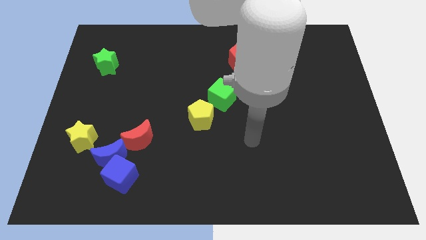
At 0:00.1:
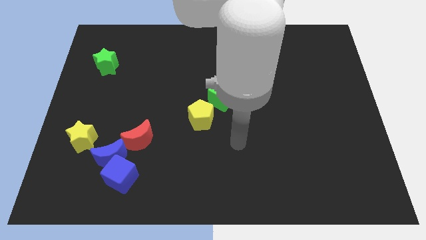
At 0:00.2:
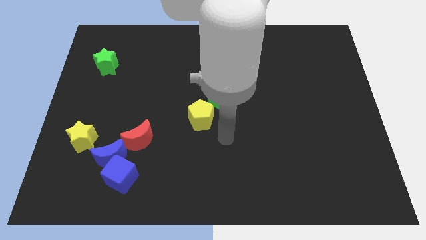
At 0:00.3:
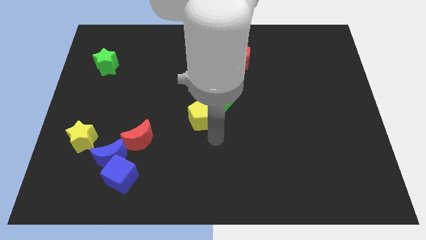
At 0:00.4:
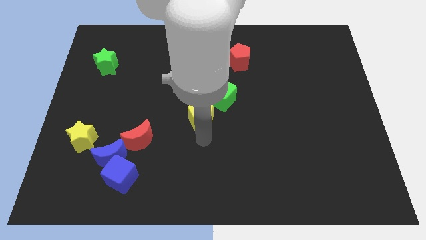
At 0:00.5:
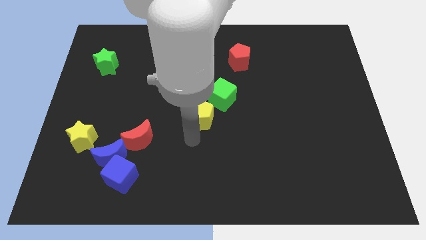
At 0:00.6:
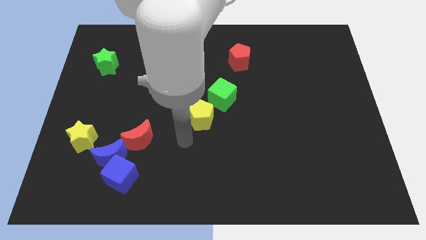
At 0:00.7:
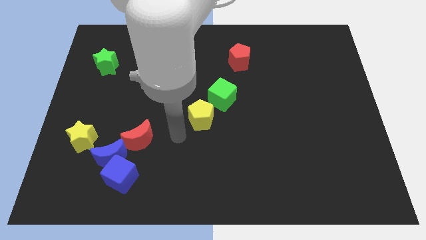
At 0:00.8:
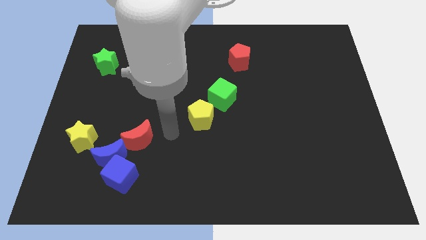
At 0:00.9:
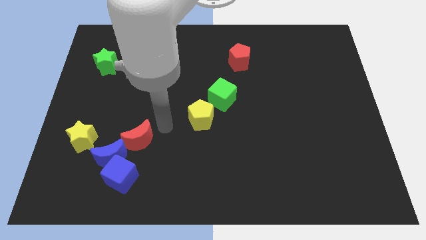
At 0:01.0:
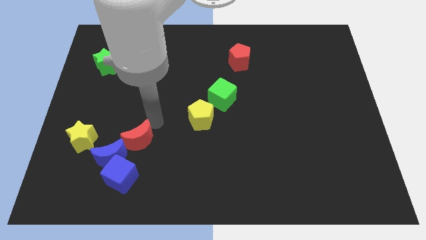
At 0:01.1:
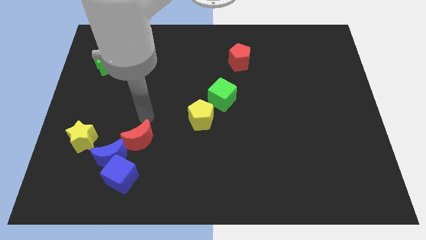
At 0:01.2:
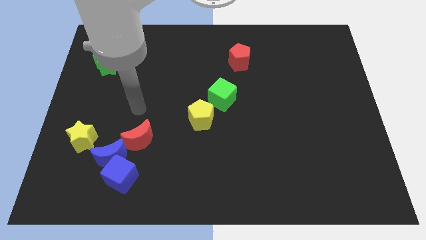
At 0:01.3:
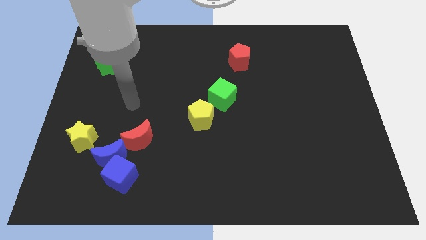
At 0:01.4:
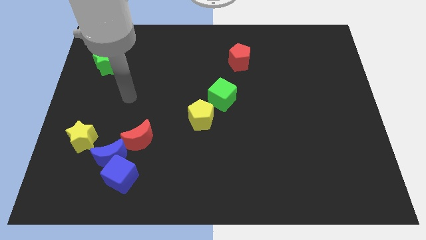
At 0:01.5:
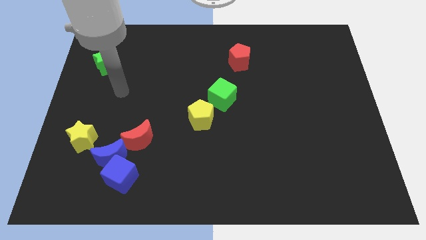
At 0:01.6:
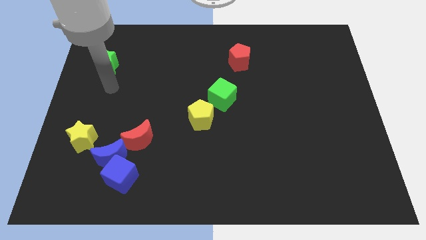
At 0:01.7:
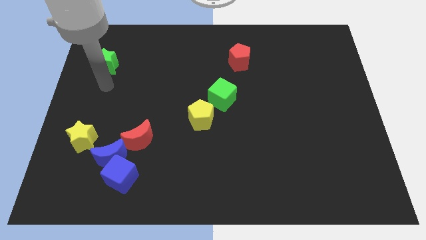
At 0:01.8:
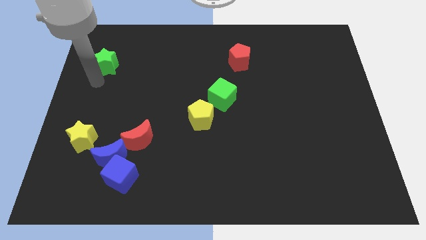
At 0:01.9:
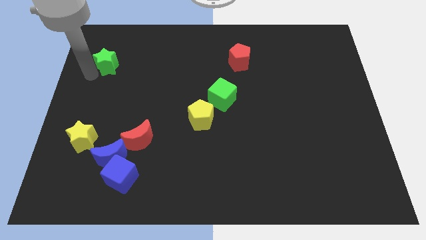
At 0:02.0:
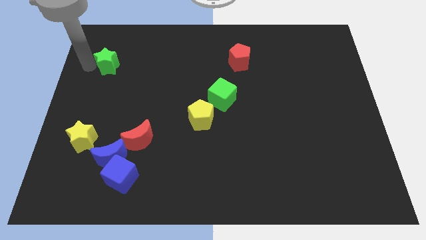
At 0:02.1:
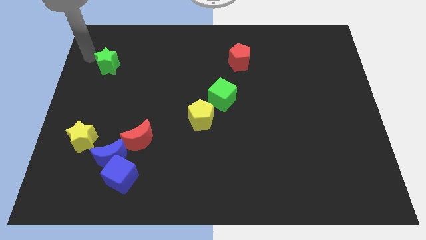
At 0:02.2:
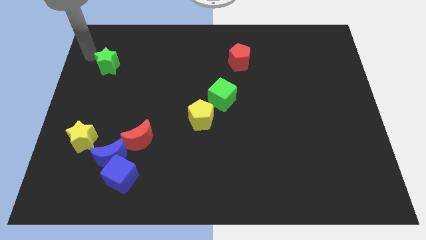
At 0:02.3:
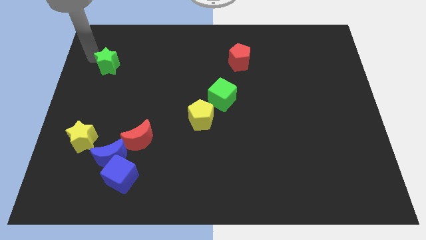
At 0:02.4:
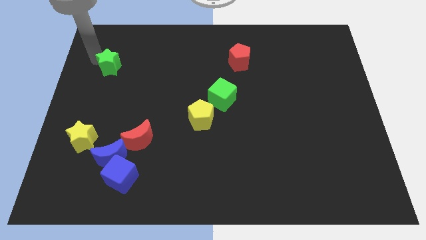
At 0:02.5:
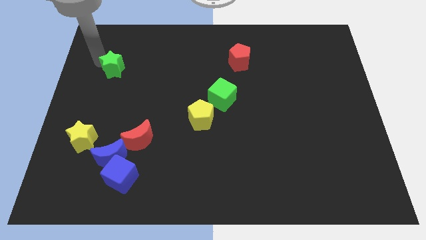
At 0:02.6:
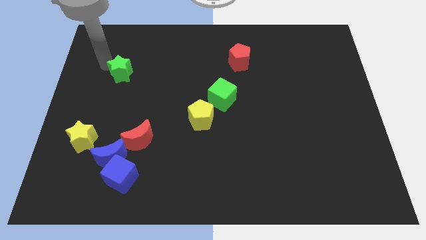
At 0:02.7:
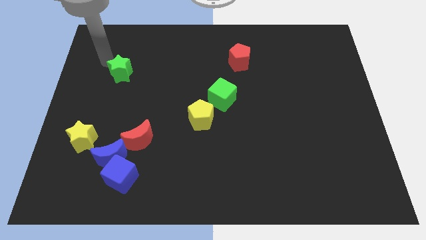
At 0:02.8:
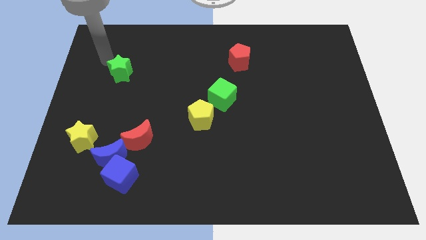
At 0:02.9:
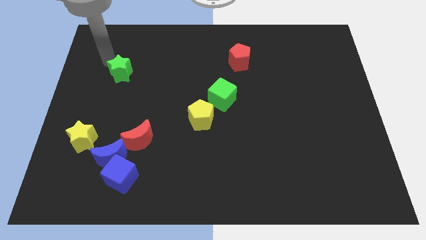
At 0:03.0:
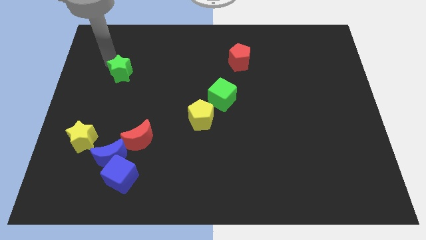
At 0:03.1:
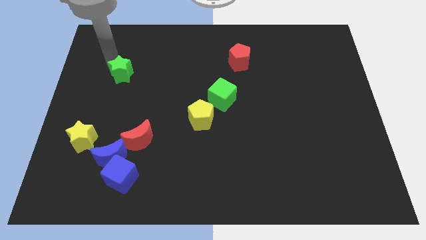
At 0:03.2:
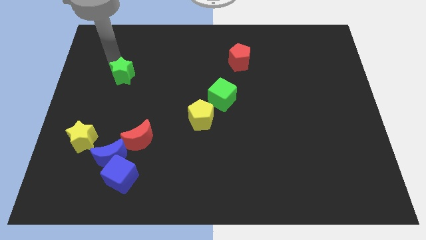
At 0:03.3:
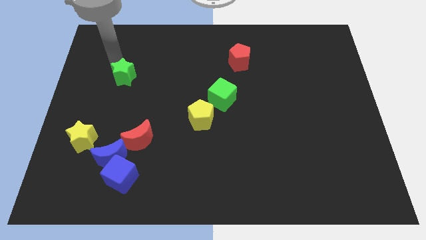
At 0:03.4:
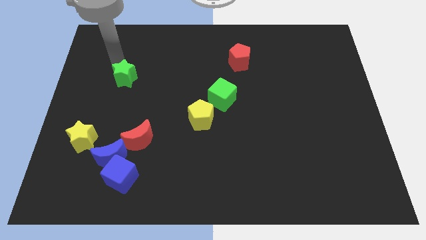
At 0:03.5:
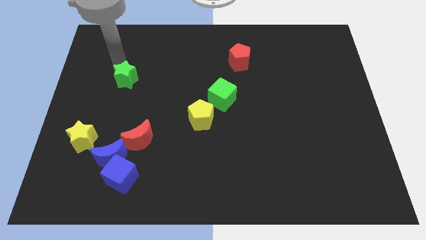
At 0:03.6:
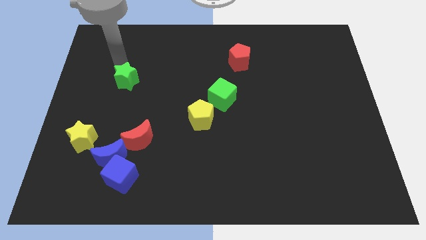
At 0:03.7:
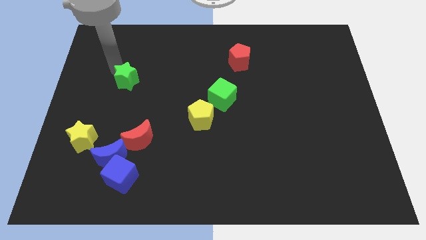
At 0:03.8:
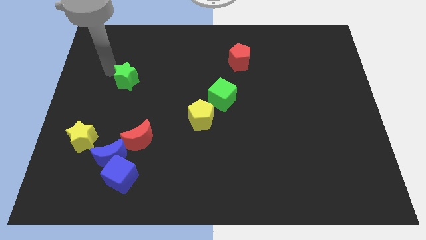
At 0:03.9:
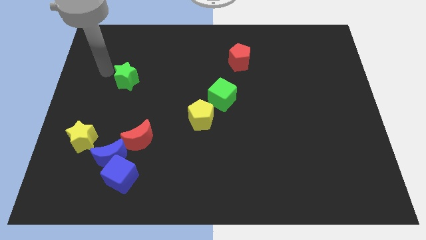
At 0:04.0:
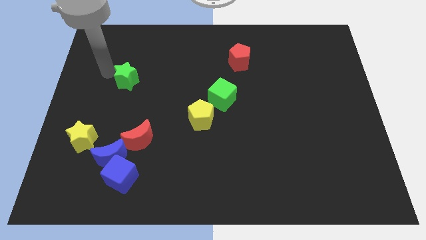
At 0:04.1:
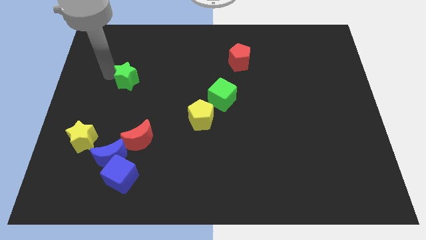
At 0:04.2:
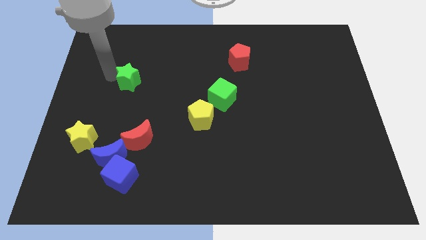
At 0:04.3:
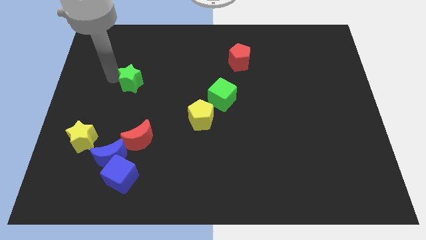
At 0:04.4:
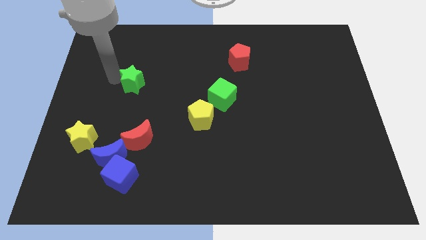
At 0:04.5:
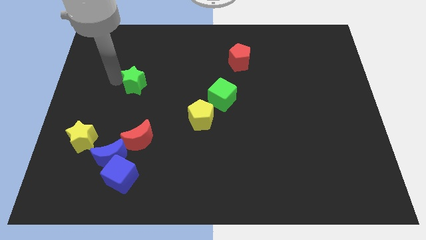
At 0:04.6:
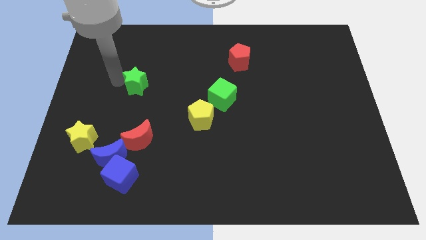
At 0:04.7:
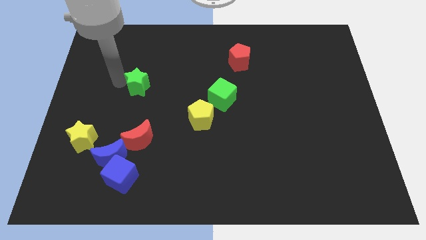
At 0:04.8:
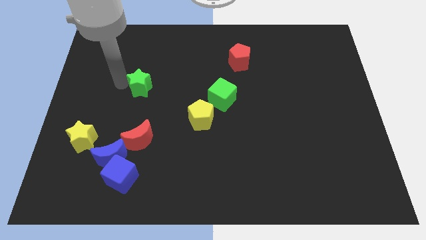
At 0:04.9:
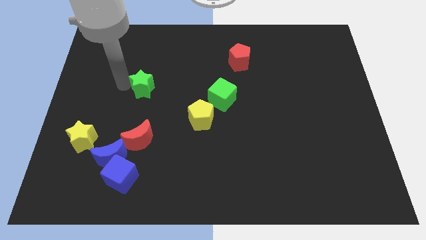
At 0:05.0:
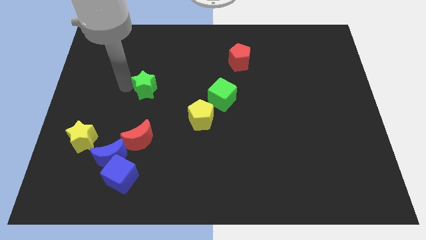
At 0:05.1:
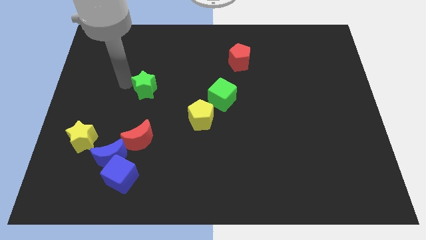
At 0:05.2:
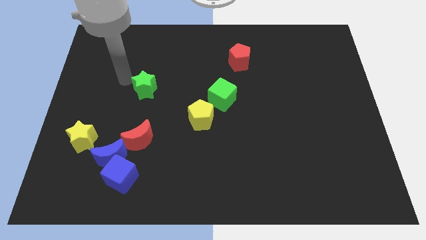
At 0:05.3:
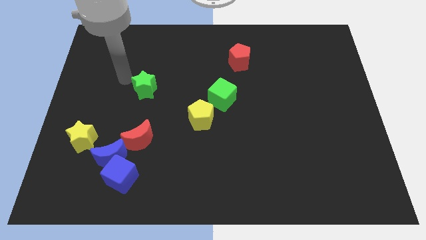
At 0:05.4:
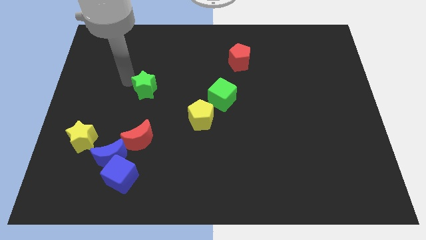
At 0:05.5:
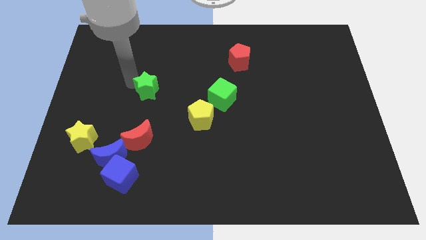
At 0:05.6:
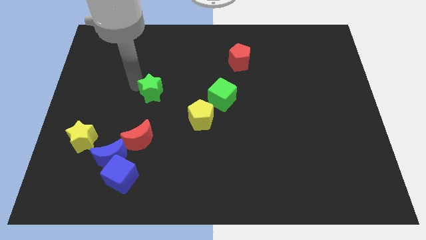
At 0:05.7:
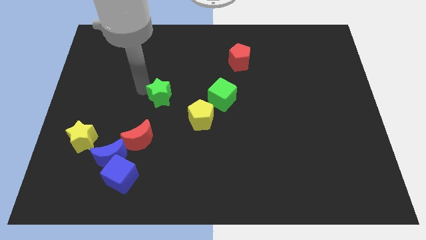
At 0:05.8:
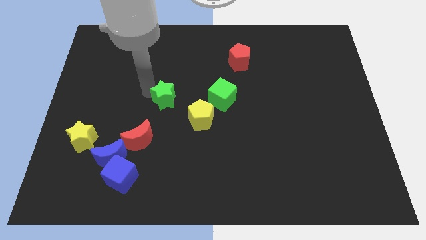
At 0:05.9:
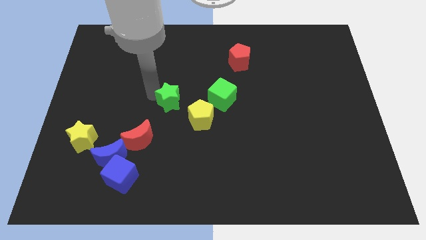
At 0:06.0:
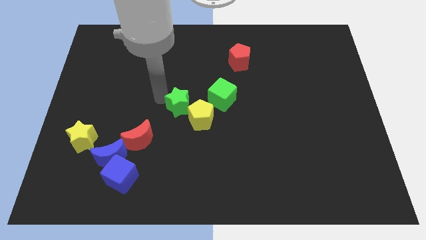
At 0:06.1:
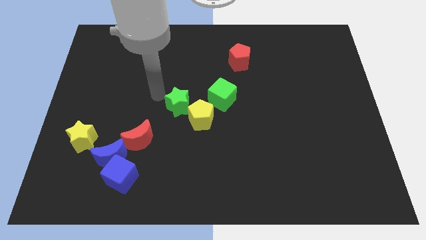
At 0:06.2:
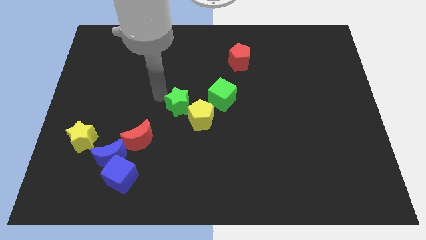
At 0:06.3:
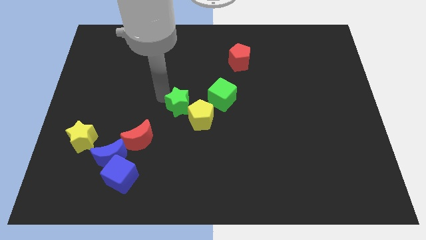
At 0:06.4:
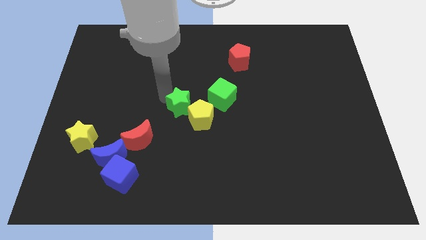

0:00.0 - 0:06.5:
slide the green star to the yellow pentagon

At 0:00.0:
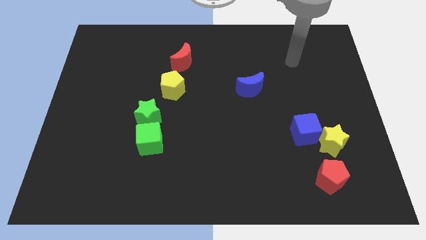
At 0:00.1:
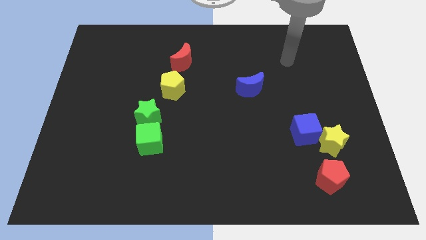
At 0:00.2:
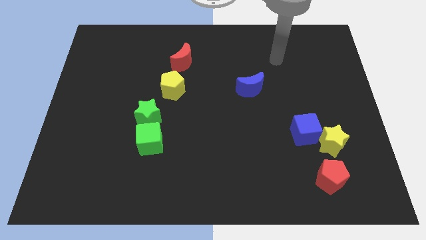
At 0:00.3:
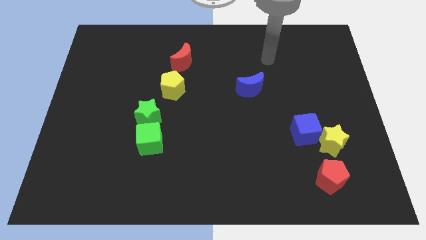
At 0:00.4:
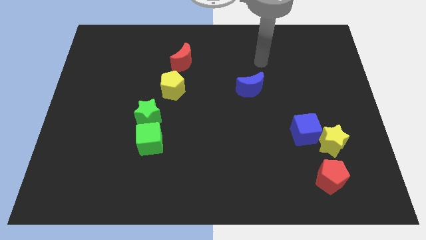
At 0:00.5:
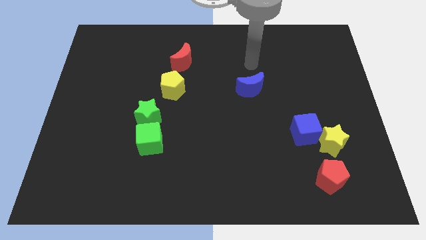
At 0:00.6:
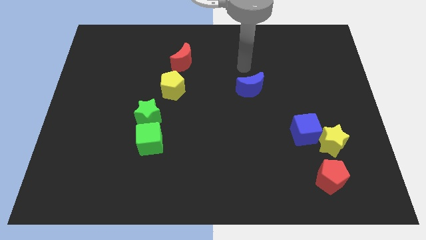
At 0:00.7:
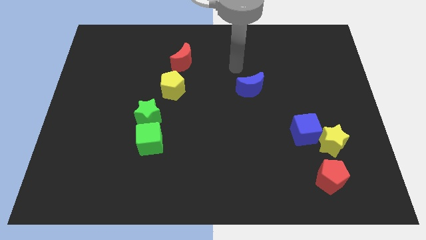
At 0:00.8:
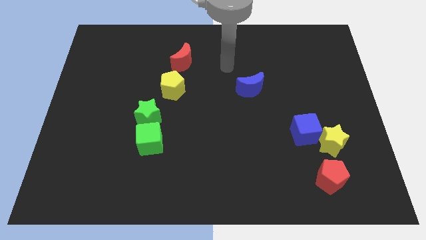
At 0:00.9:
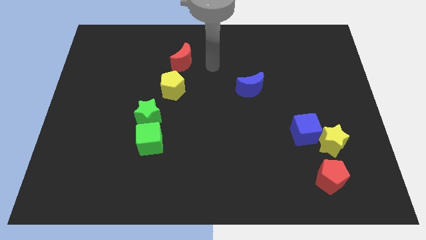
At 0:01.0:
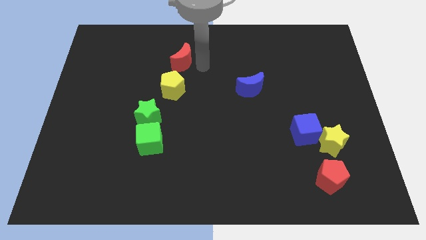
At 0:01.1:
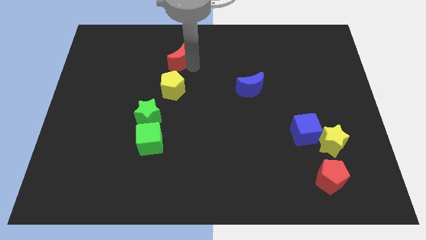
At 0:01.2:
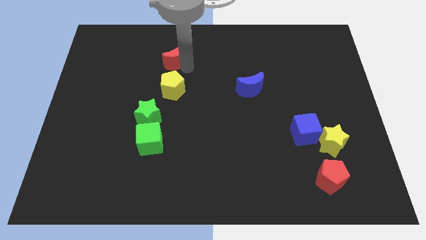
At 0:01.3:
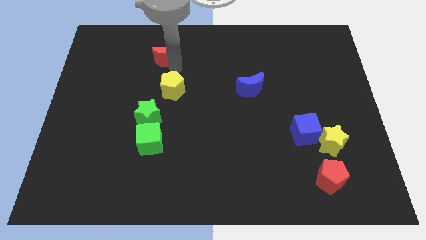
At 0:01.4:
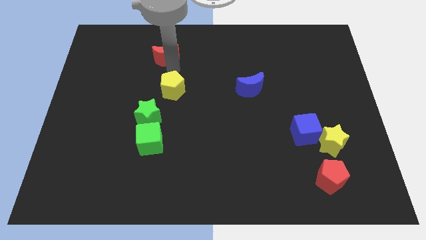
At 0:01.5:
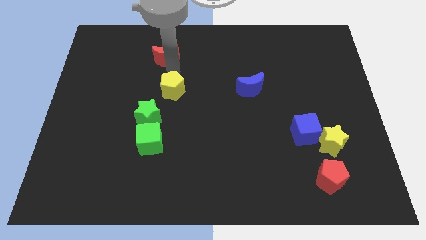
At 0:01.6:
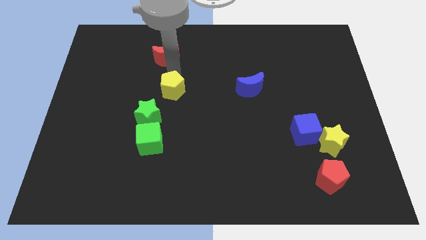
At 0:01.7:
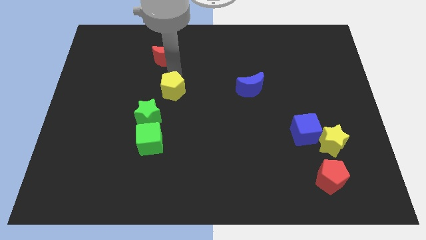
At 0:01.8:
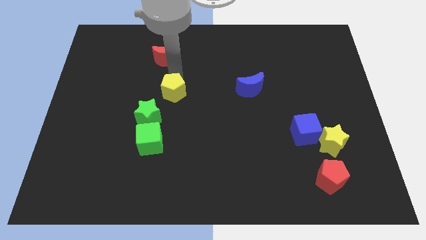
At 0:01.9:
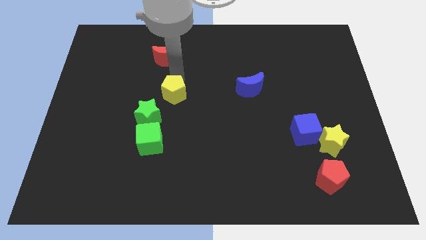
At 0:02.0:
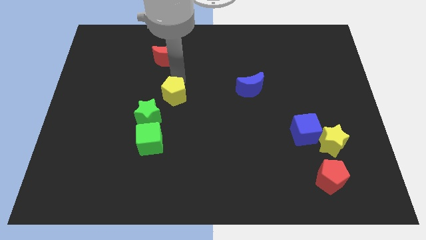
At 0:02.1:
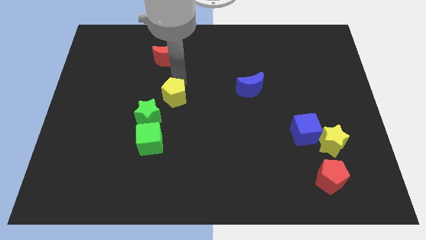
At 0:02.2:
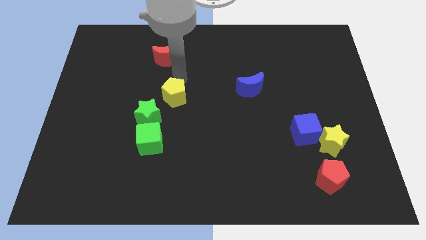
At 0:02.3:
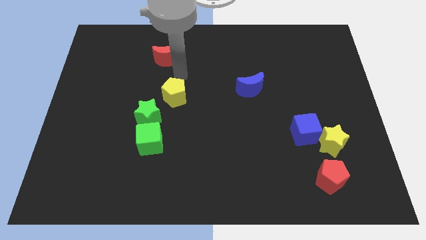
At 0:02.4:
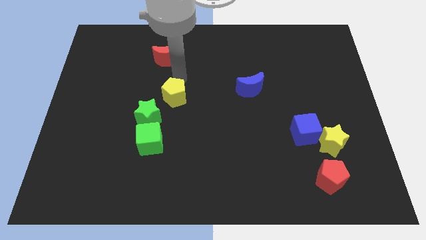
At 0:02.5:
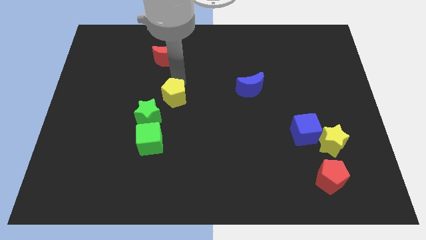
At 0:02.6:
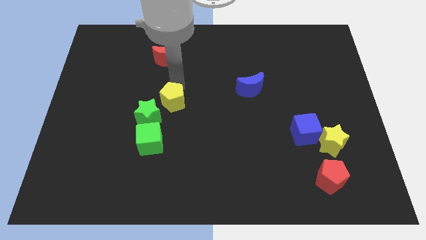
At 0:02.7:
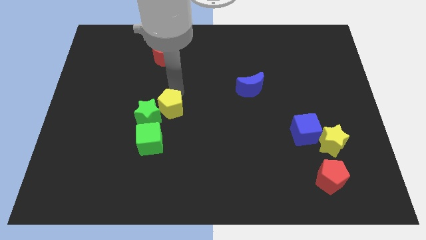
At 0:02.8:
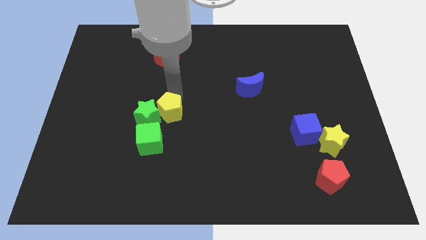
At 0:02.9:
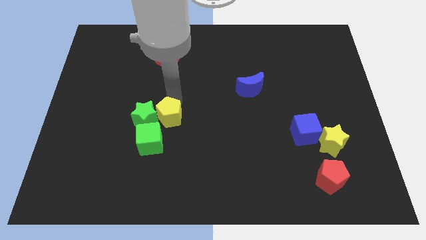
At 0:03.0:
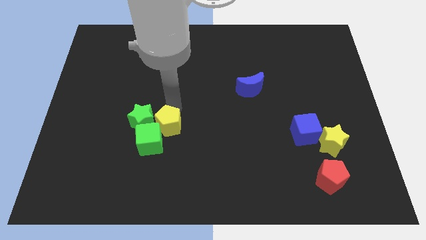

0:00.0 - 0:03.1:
slide the yellow pentagon towards the green cube
